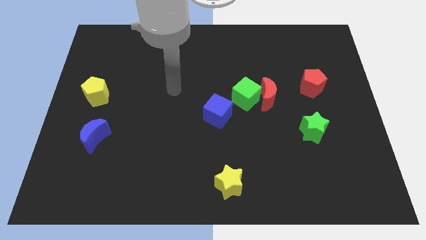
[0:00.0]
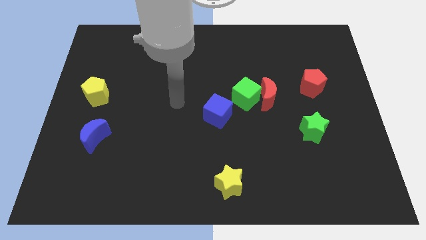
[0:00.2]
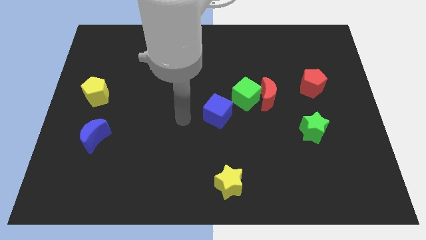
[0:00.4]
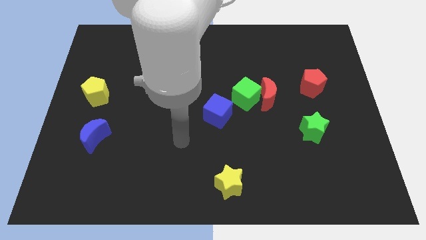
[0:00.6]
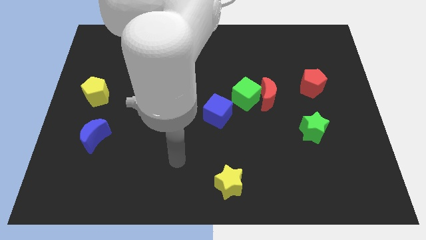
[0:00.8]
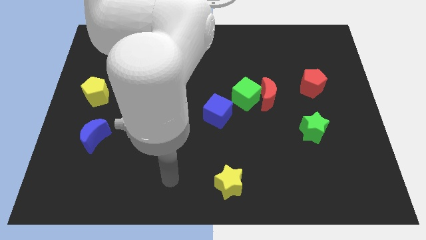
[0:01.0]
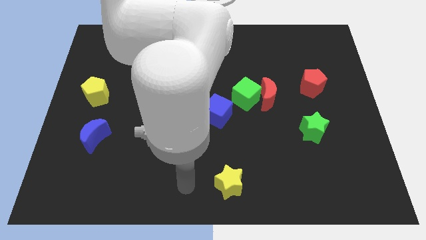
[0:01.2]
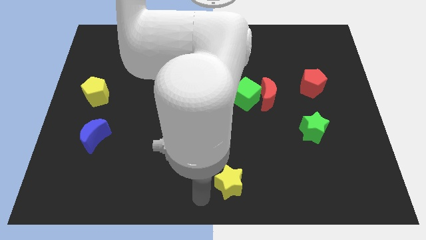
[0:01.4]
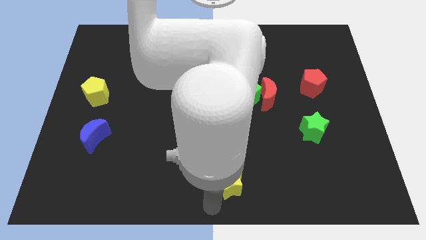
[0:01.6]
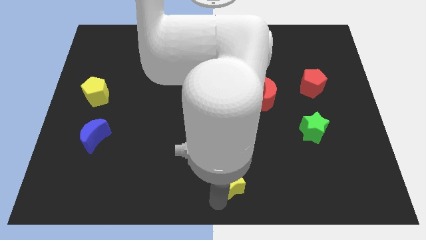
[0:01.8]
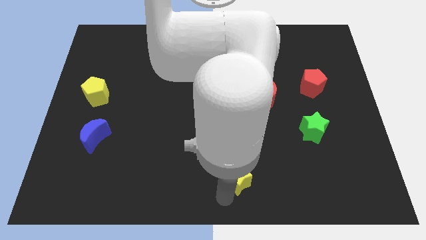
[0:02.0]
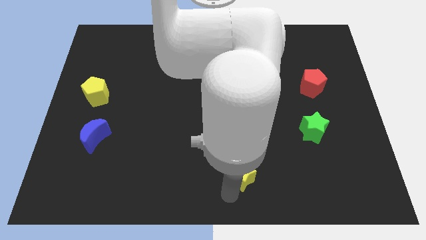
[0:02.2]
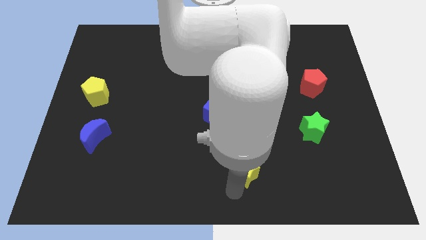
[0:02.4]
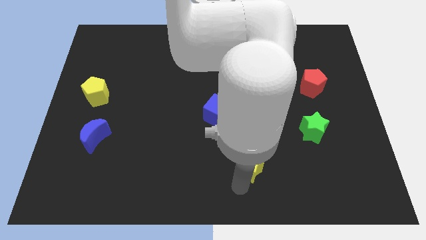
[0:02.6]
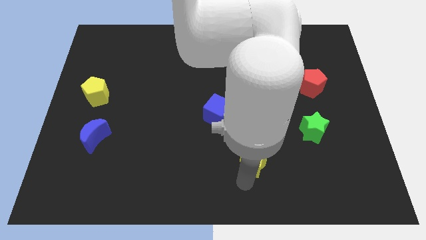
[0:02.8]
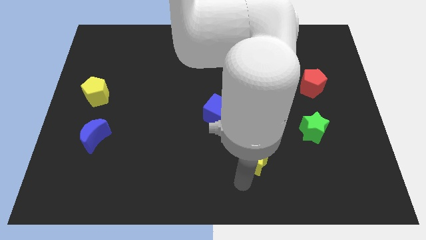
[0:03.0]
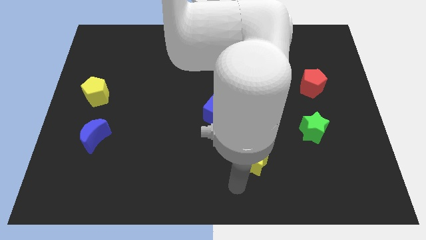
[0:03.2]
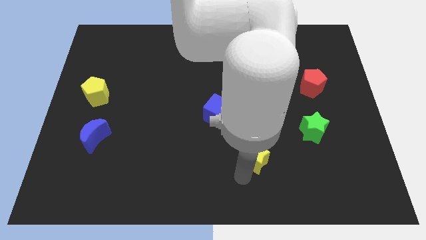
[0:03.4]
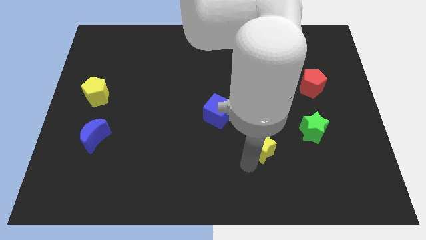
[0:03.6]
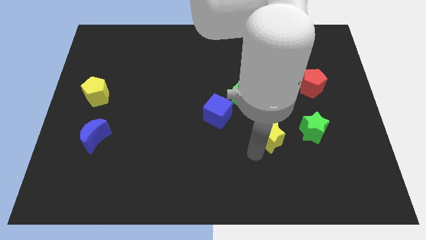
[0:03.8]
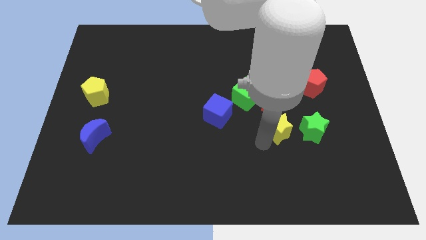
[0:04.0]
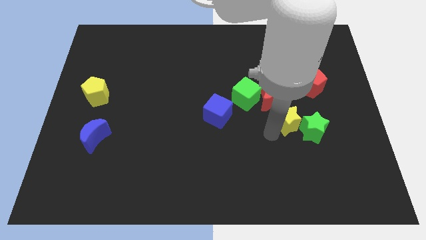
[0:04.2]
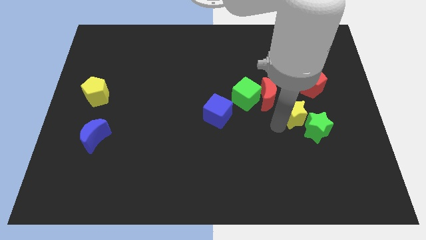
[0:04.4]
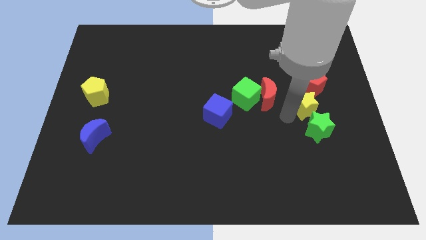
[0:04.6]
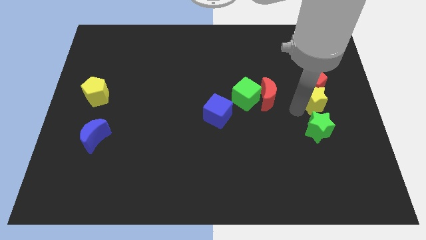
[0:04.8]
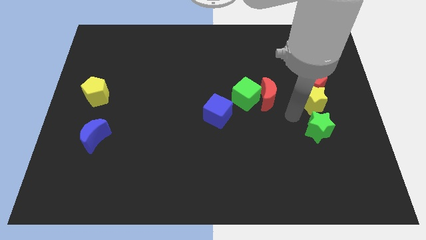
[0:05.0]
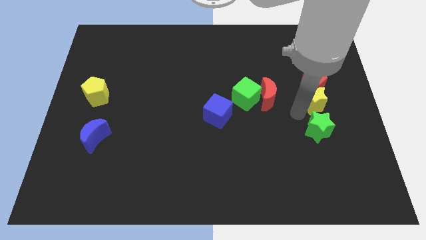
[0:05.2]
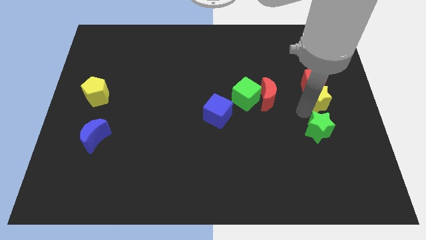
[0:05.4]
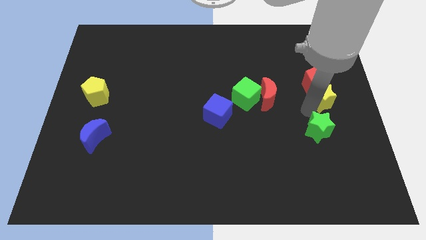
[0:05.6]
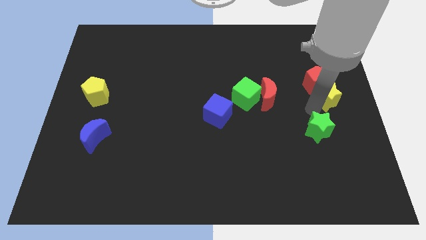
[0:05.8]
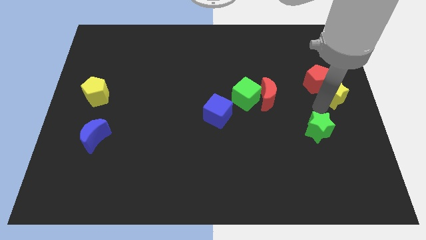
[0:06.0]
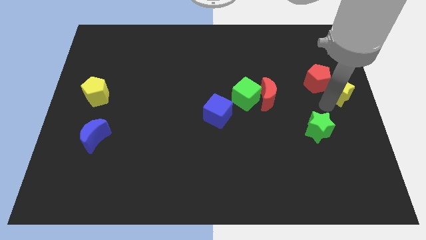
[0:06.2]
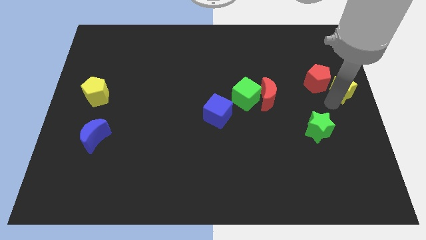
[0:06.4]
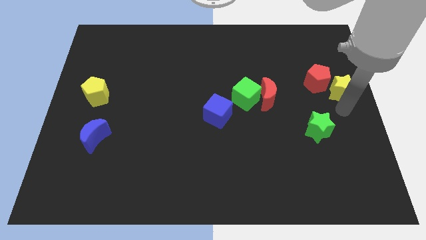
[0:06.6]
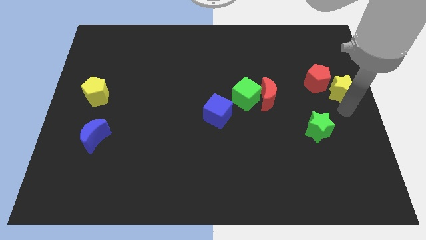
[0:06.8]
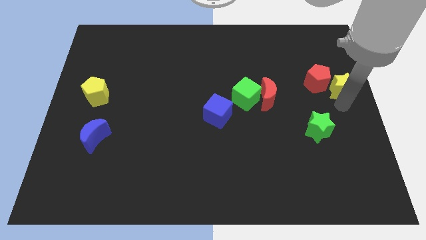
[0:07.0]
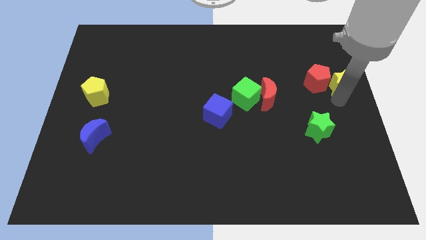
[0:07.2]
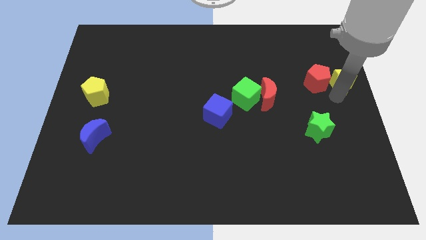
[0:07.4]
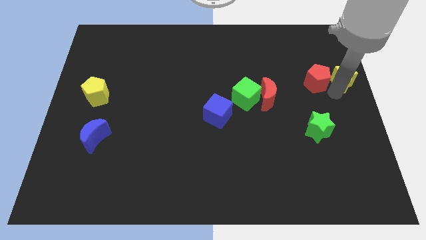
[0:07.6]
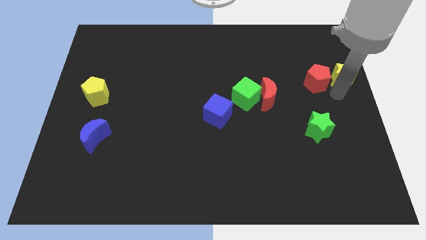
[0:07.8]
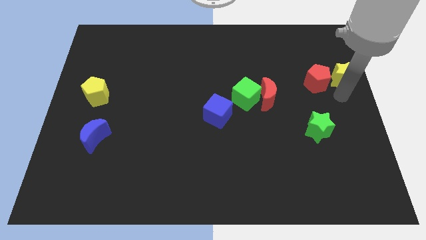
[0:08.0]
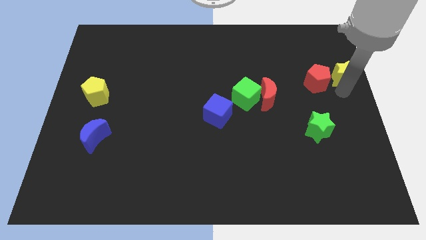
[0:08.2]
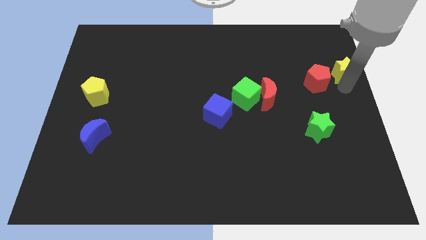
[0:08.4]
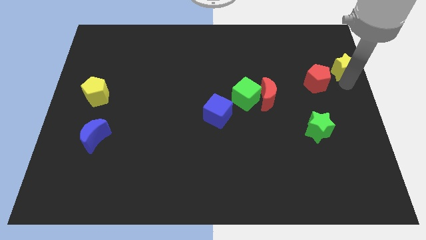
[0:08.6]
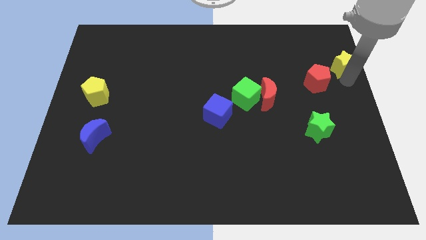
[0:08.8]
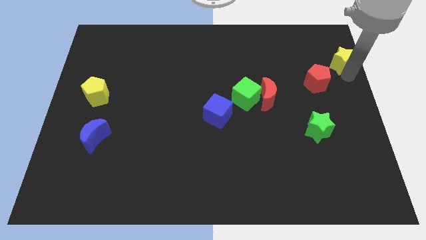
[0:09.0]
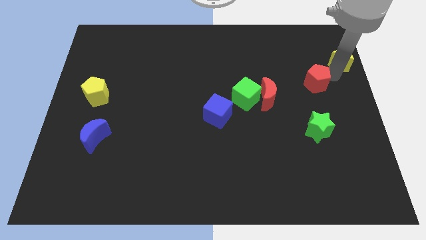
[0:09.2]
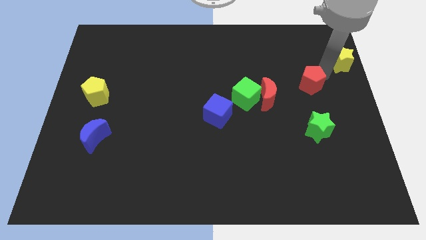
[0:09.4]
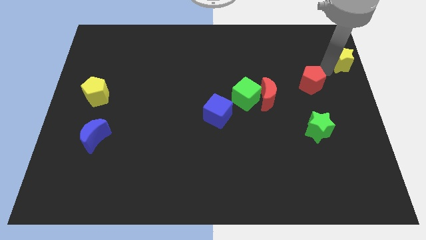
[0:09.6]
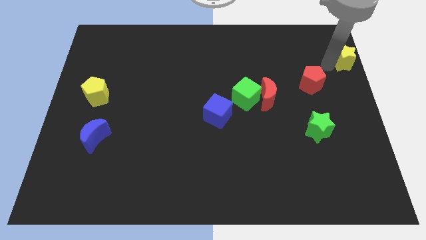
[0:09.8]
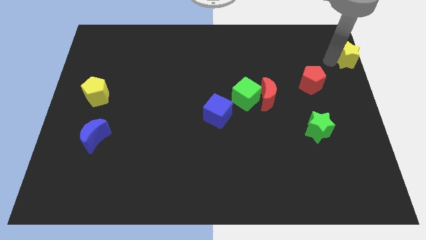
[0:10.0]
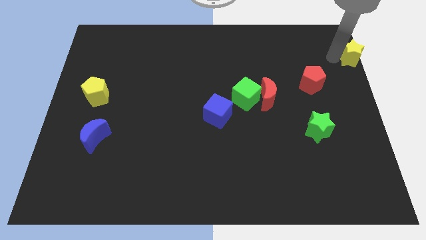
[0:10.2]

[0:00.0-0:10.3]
move the yellow star to the top right of the board

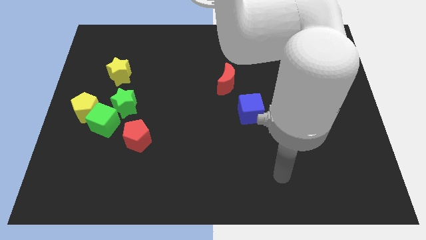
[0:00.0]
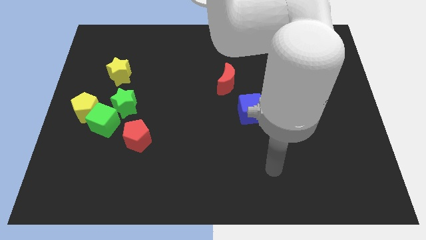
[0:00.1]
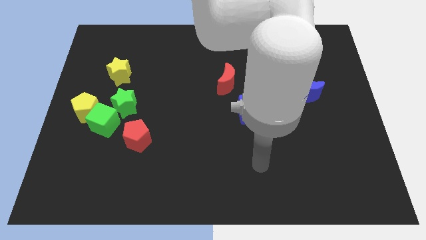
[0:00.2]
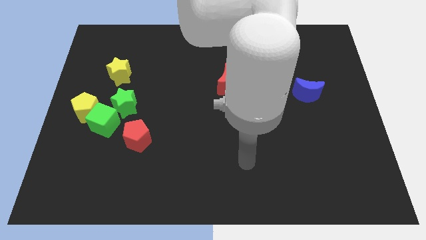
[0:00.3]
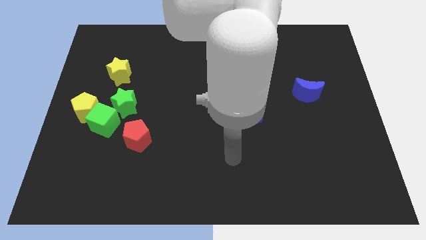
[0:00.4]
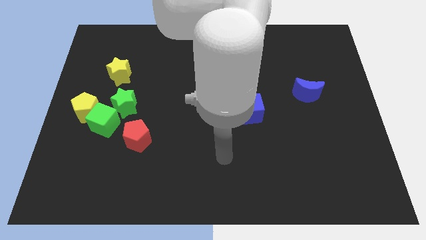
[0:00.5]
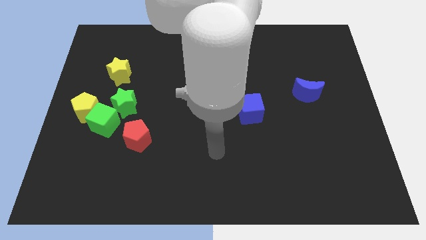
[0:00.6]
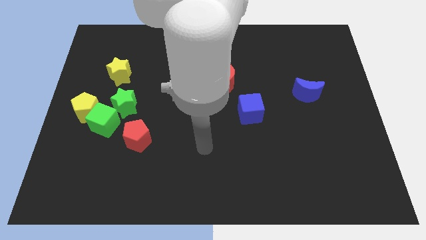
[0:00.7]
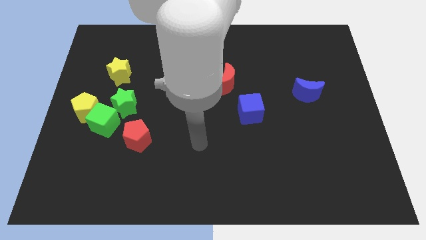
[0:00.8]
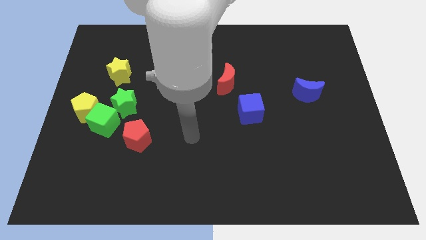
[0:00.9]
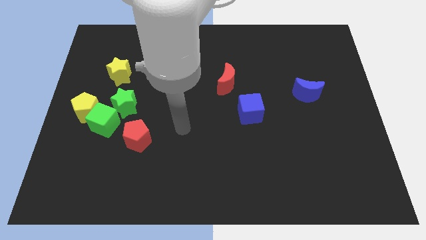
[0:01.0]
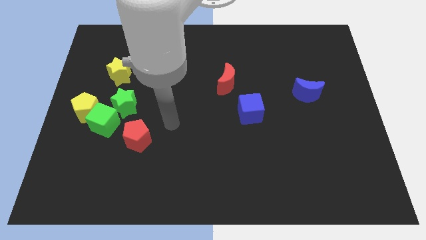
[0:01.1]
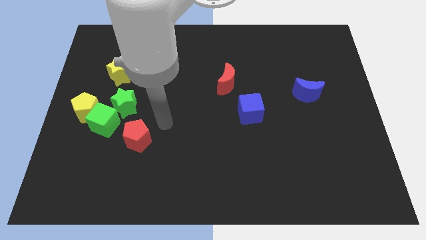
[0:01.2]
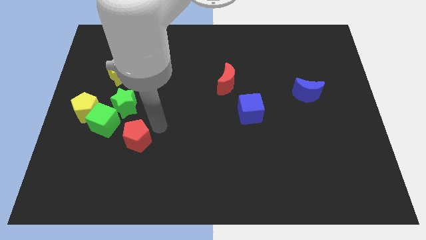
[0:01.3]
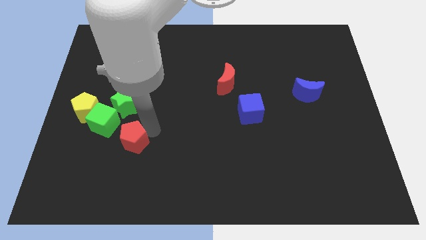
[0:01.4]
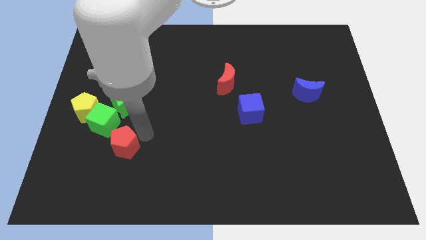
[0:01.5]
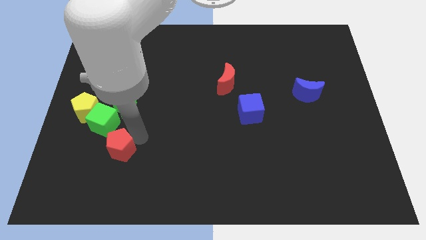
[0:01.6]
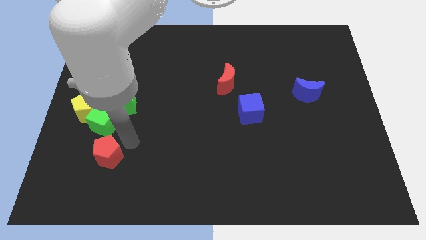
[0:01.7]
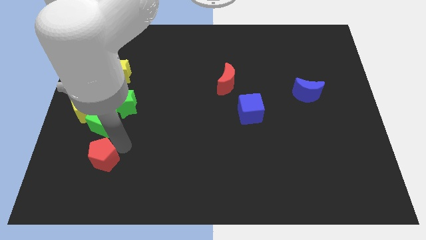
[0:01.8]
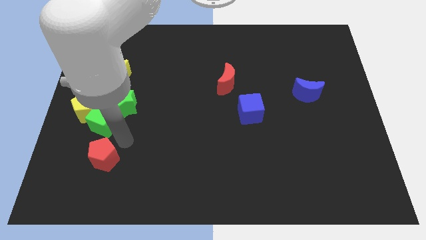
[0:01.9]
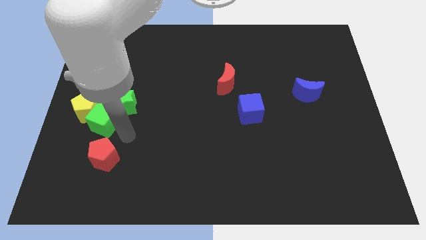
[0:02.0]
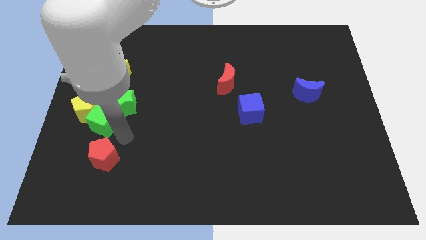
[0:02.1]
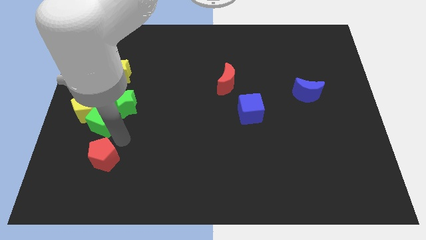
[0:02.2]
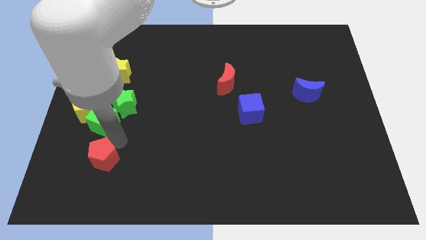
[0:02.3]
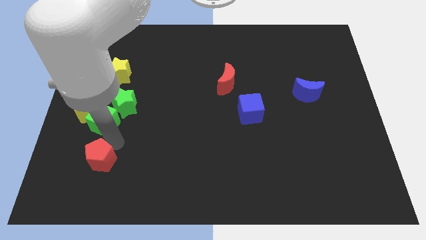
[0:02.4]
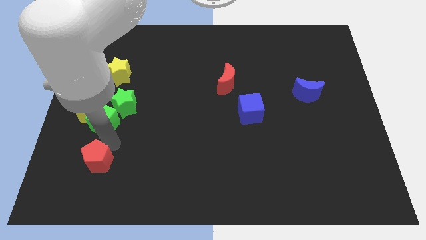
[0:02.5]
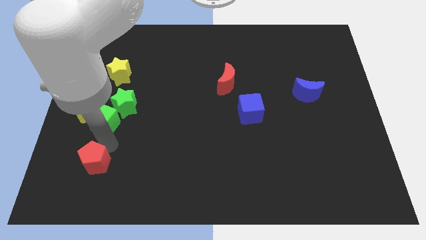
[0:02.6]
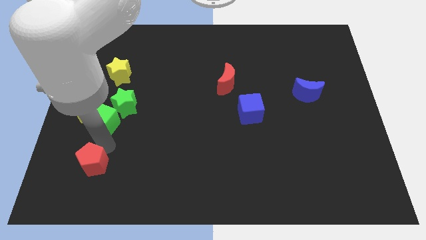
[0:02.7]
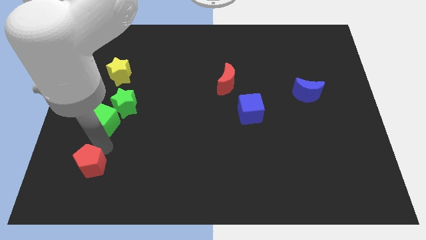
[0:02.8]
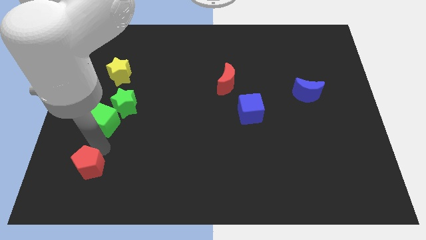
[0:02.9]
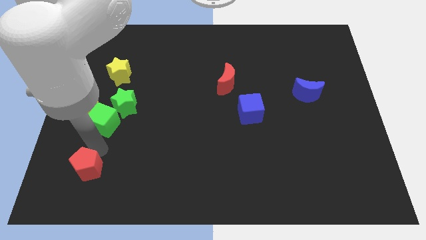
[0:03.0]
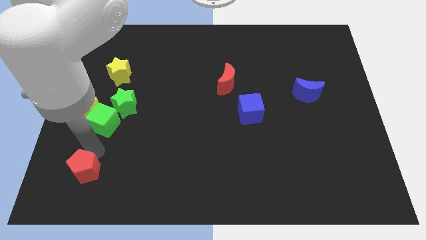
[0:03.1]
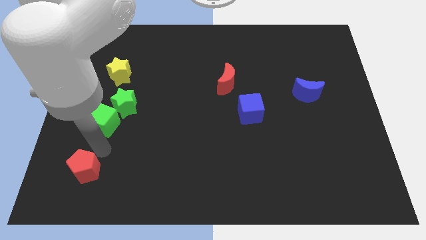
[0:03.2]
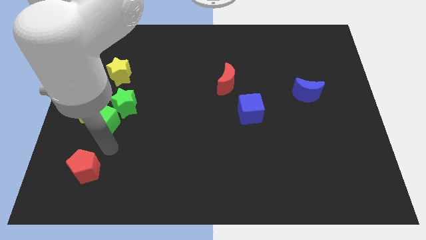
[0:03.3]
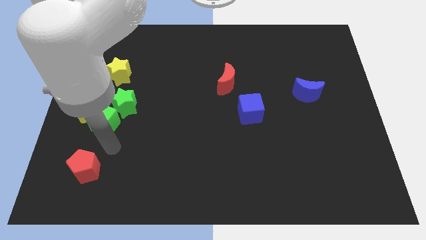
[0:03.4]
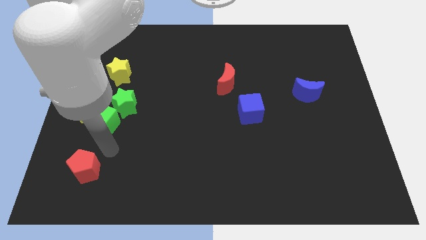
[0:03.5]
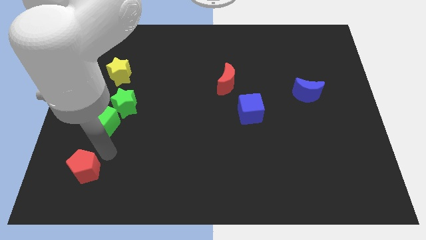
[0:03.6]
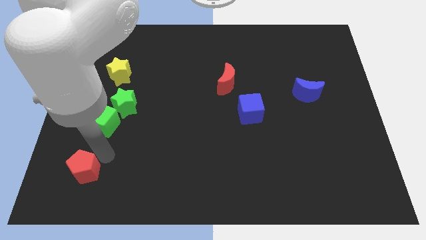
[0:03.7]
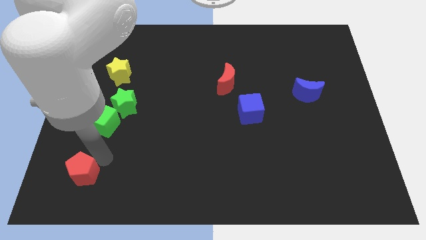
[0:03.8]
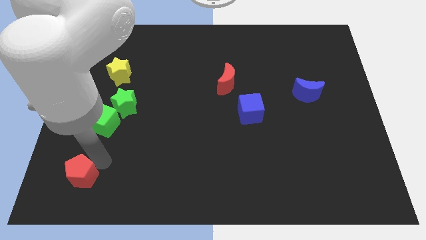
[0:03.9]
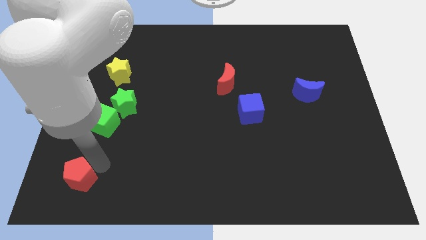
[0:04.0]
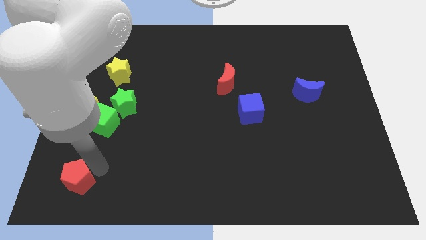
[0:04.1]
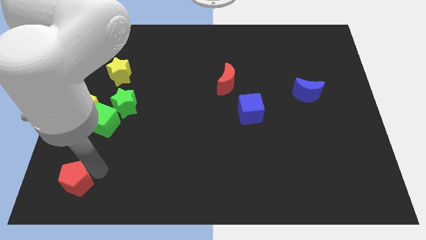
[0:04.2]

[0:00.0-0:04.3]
slide the red pentagon to the bottom left of the board
